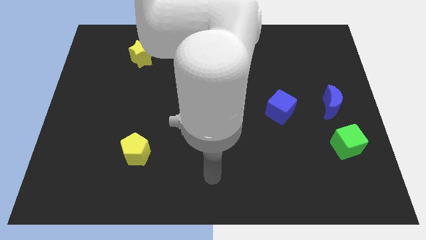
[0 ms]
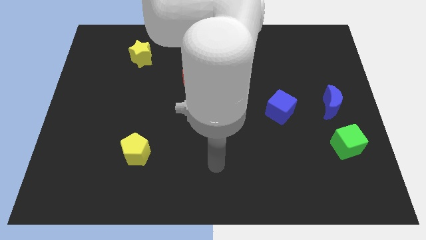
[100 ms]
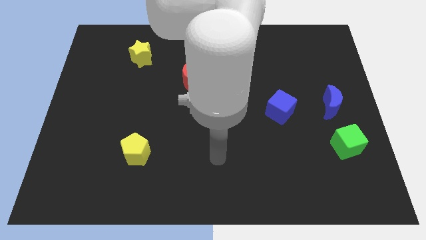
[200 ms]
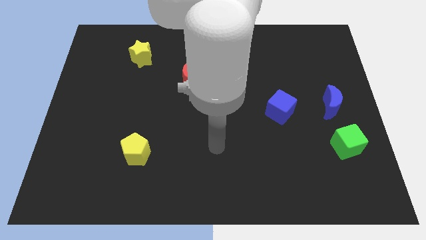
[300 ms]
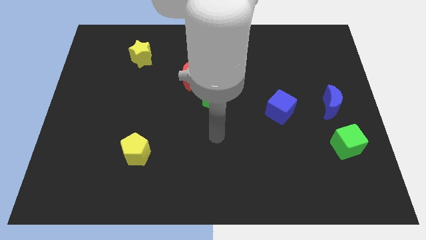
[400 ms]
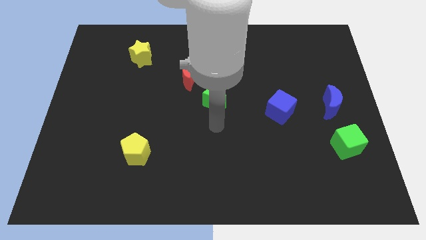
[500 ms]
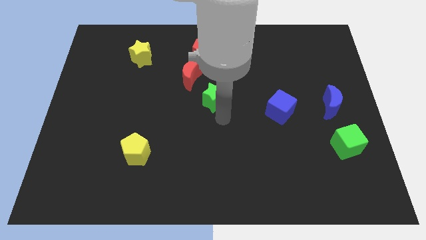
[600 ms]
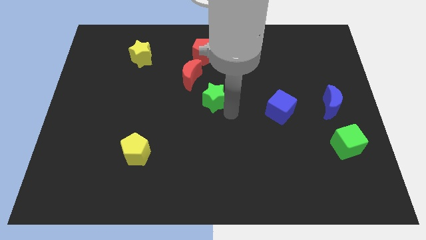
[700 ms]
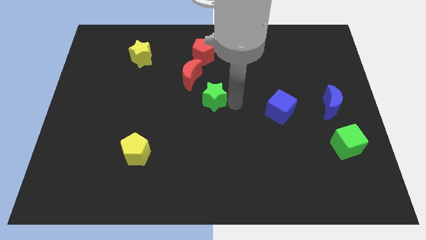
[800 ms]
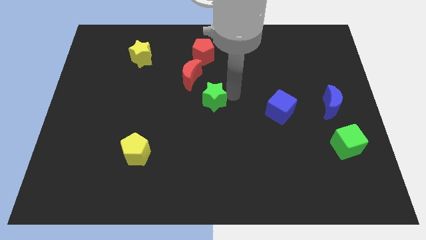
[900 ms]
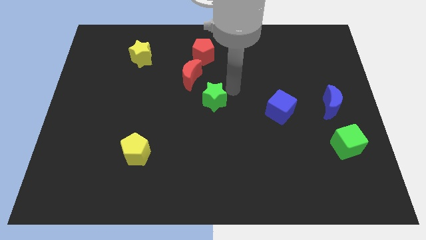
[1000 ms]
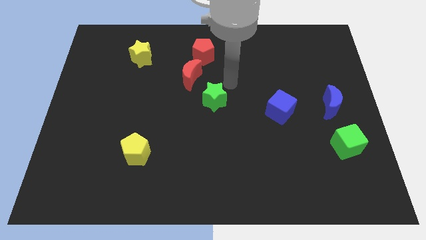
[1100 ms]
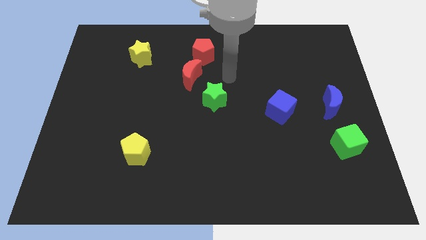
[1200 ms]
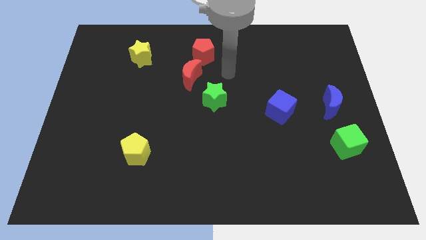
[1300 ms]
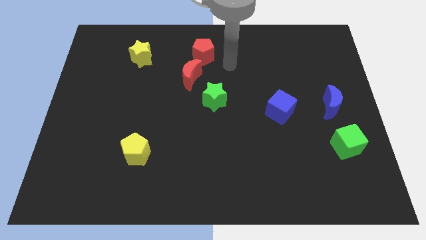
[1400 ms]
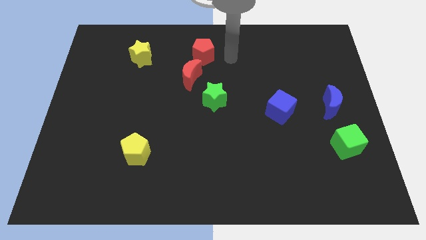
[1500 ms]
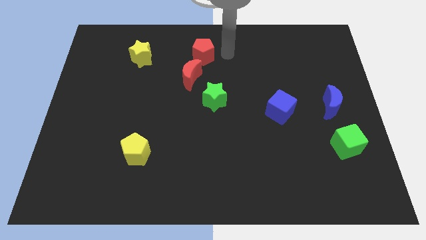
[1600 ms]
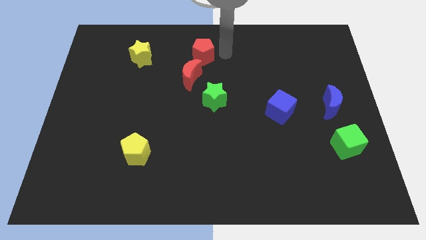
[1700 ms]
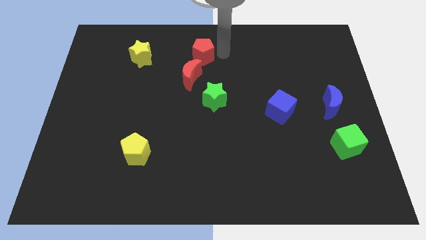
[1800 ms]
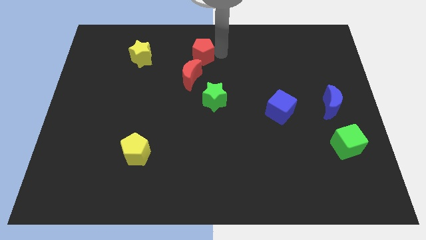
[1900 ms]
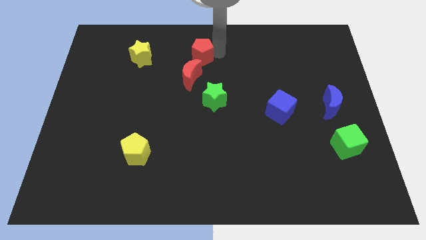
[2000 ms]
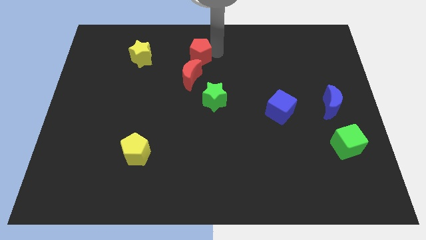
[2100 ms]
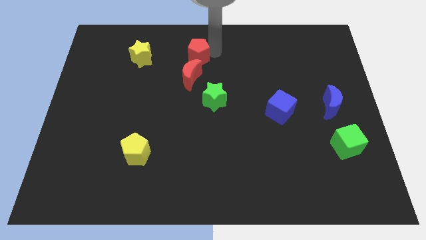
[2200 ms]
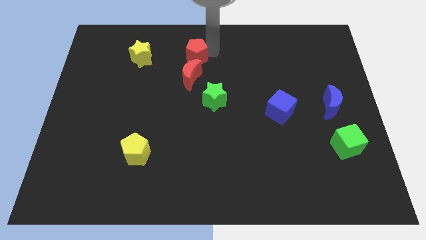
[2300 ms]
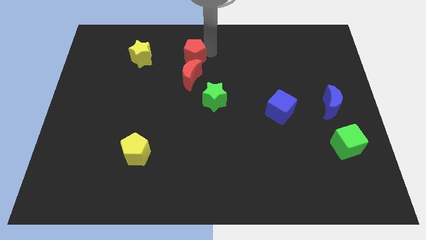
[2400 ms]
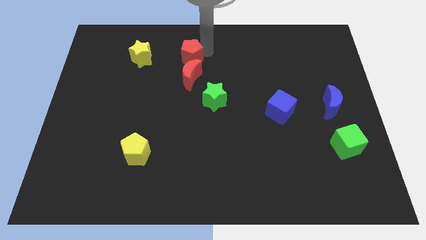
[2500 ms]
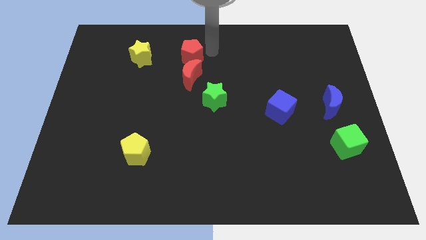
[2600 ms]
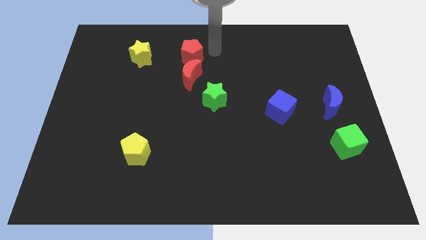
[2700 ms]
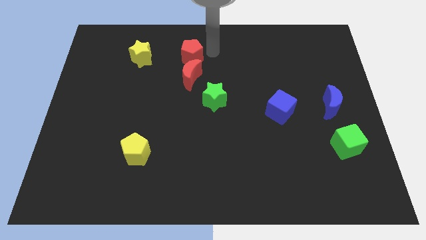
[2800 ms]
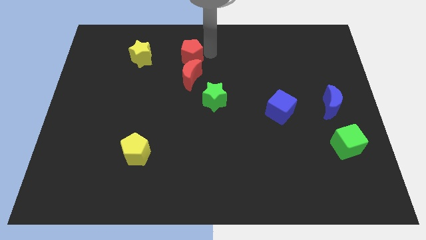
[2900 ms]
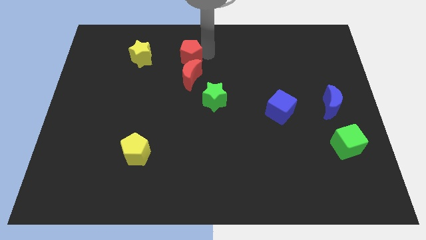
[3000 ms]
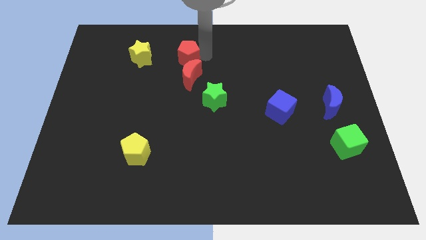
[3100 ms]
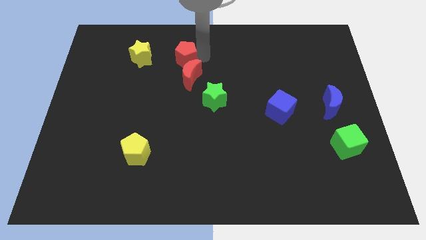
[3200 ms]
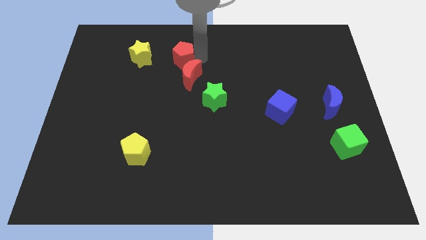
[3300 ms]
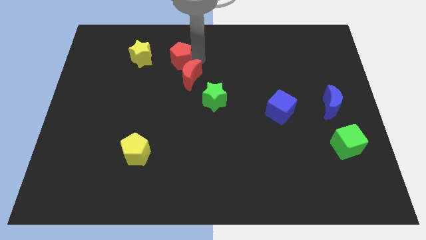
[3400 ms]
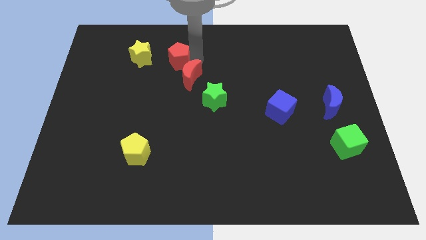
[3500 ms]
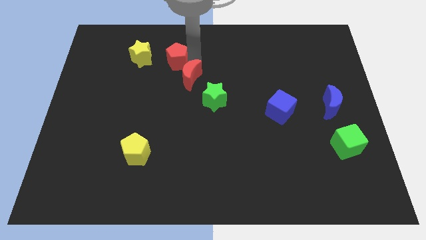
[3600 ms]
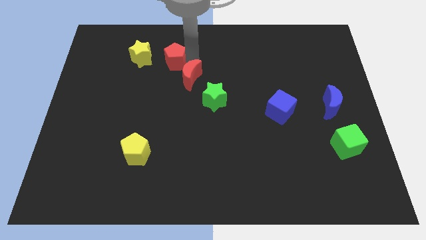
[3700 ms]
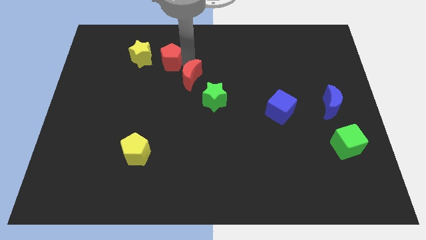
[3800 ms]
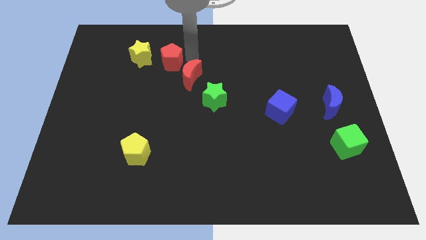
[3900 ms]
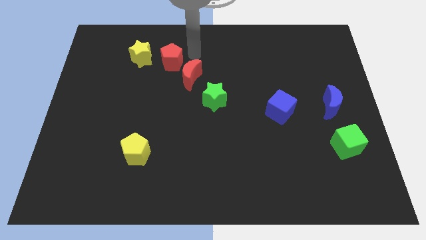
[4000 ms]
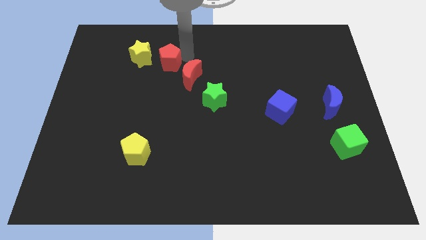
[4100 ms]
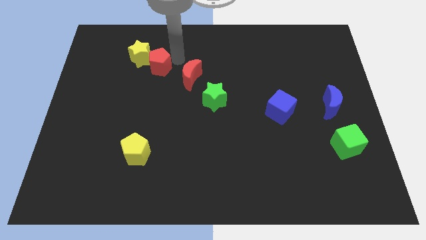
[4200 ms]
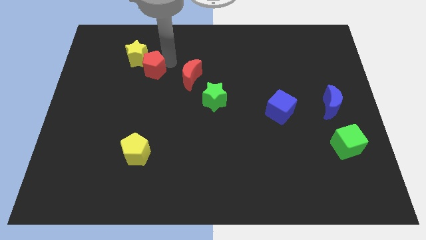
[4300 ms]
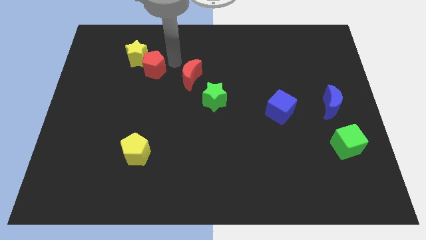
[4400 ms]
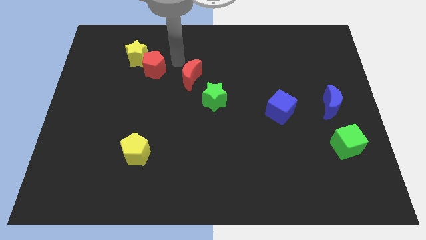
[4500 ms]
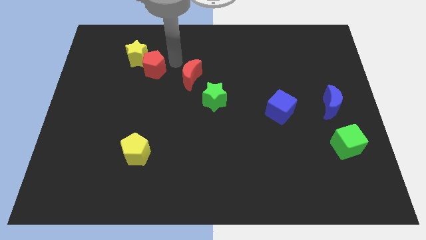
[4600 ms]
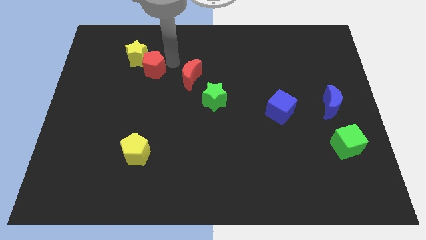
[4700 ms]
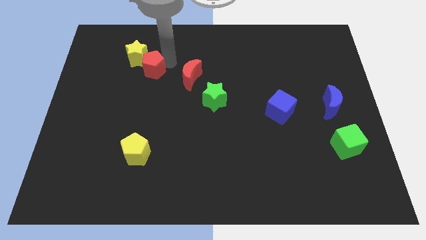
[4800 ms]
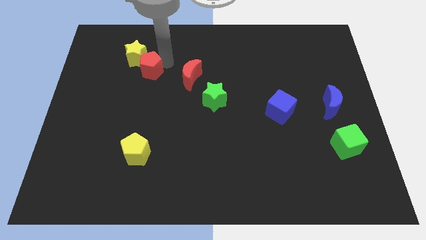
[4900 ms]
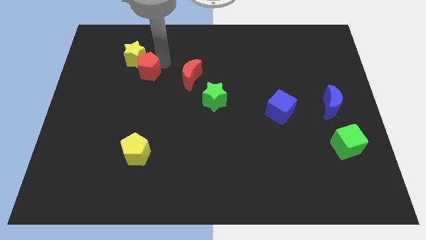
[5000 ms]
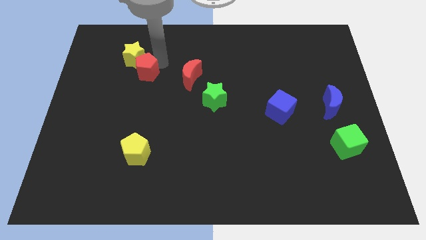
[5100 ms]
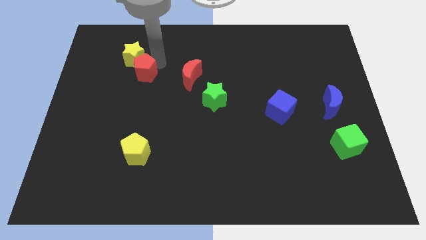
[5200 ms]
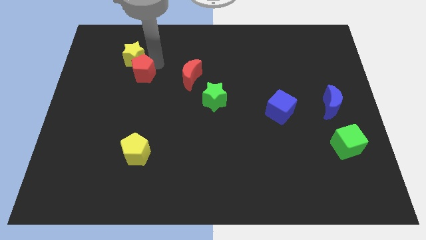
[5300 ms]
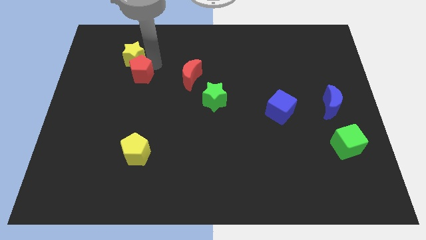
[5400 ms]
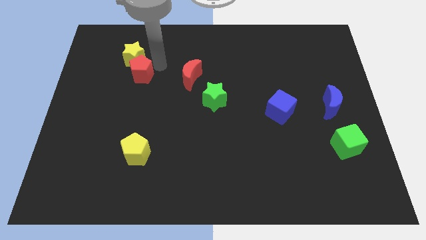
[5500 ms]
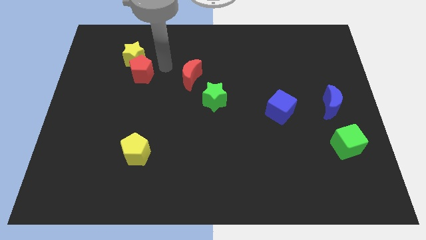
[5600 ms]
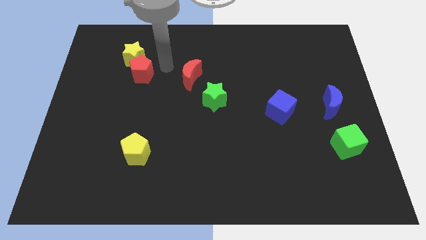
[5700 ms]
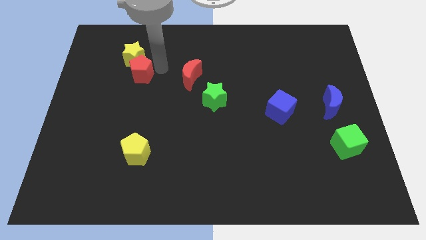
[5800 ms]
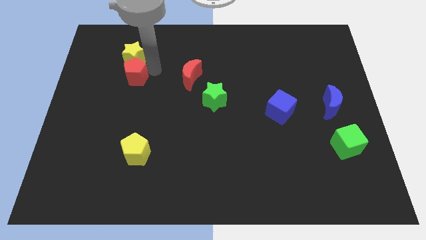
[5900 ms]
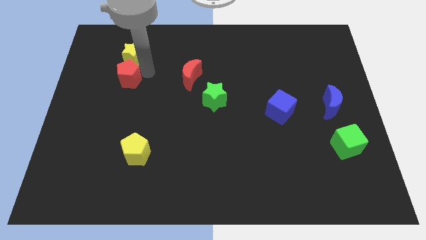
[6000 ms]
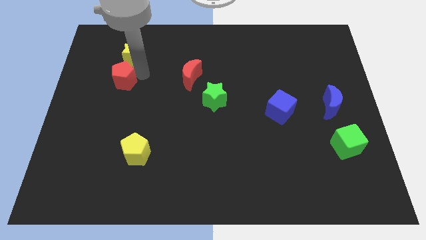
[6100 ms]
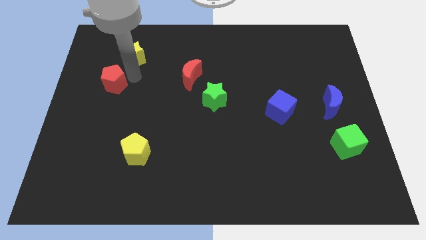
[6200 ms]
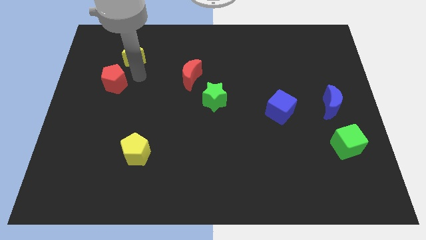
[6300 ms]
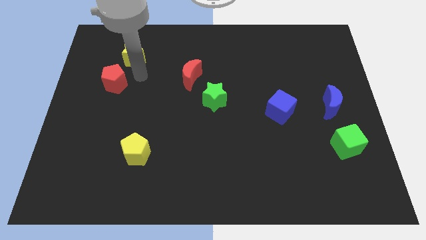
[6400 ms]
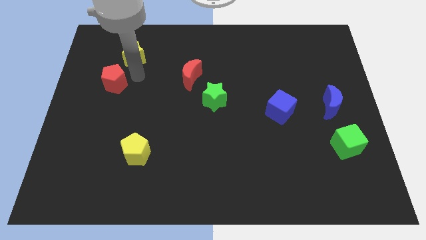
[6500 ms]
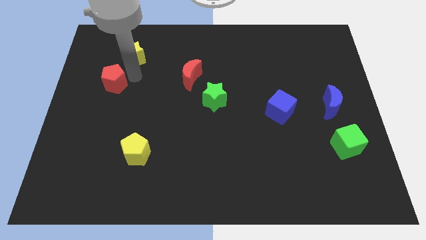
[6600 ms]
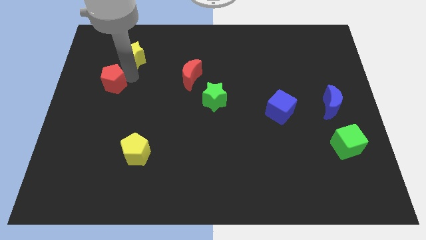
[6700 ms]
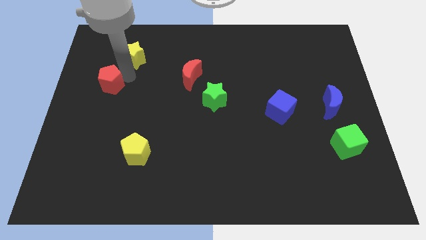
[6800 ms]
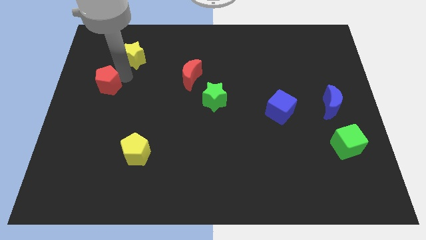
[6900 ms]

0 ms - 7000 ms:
slide the red pentagon to the left side of the board
